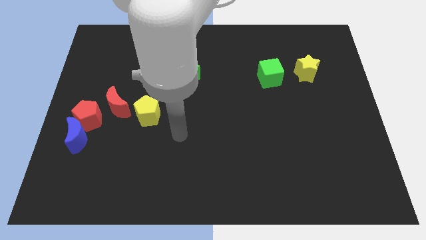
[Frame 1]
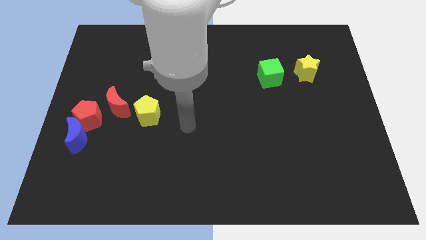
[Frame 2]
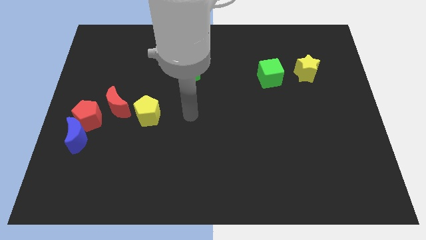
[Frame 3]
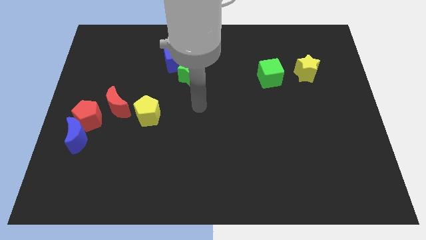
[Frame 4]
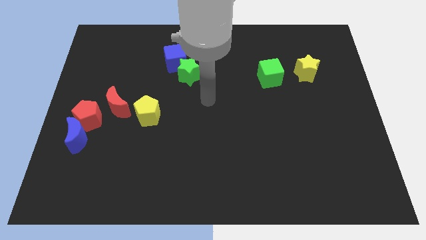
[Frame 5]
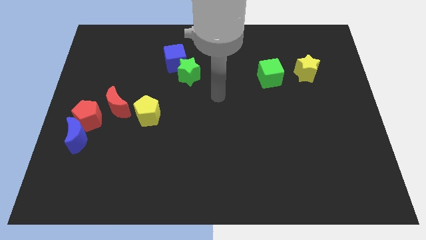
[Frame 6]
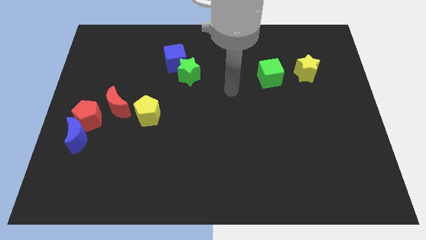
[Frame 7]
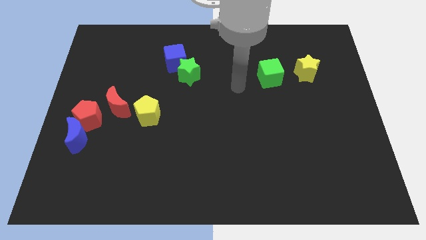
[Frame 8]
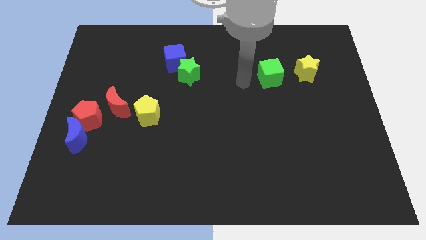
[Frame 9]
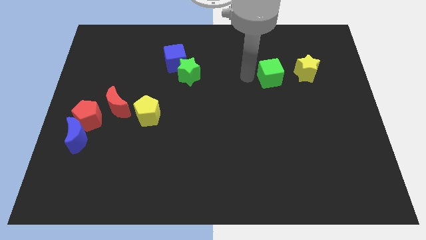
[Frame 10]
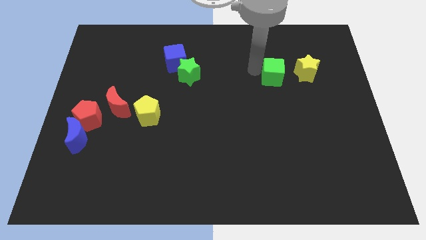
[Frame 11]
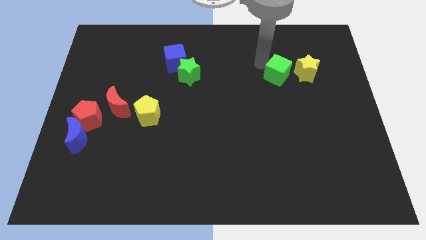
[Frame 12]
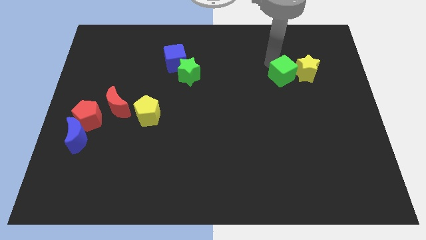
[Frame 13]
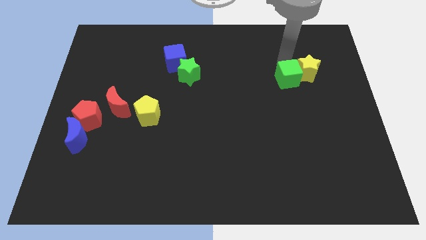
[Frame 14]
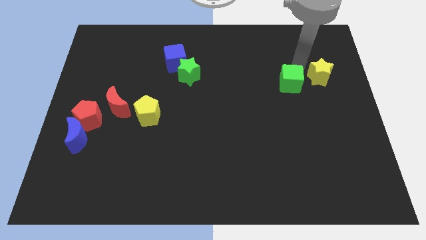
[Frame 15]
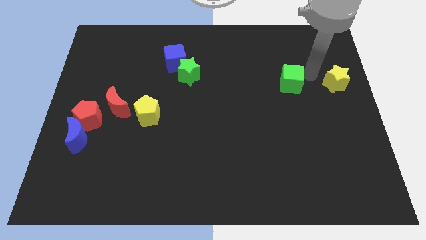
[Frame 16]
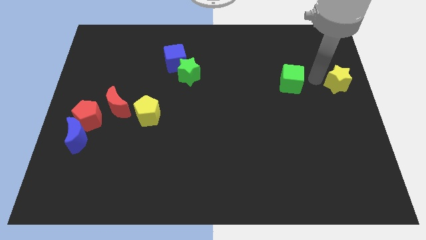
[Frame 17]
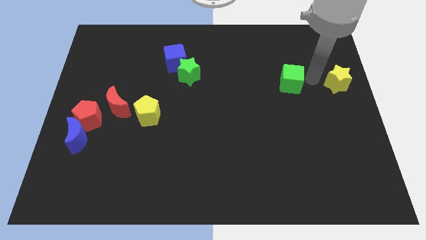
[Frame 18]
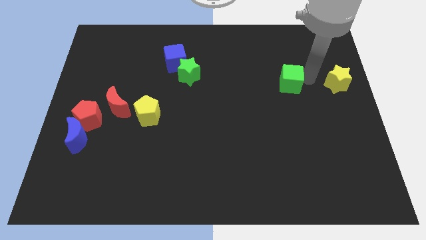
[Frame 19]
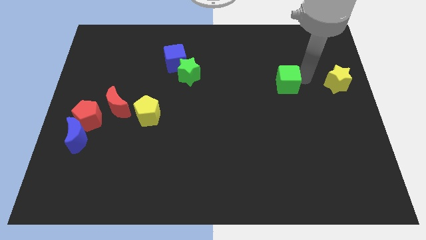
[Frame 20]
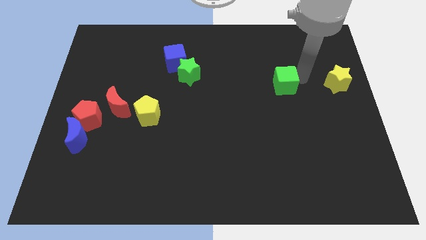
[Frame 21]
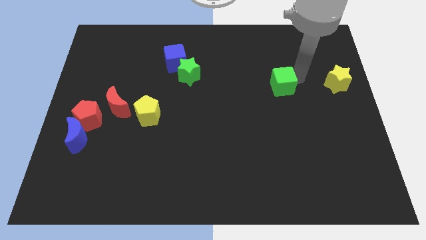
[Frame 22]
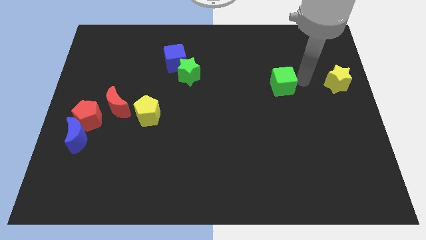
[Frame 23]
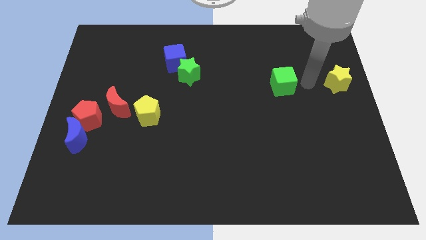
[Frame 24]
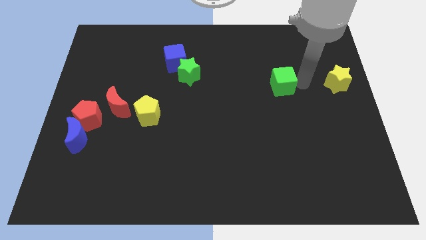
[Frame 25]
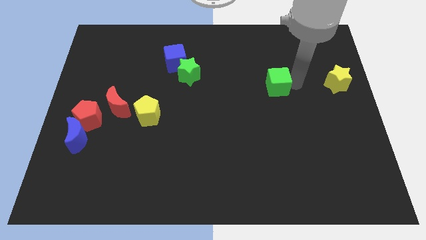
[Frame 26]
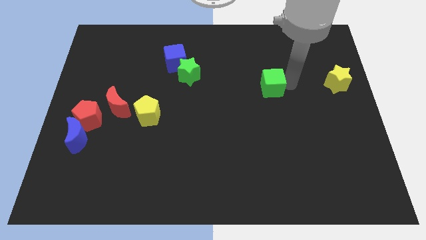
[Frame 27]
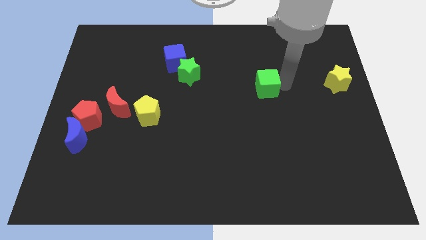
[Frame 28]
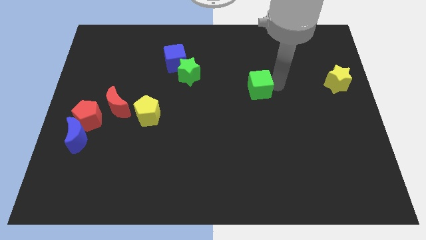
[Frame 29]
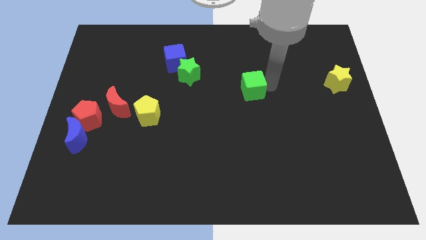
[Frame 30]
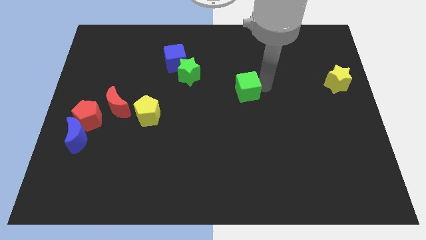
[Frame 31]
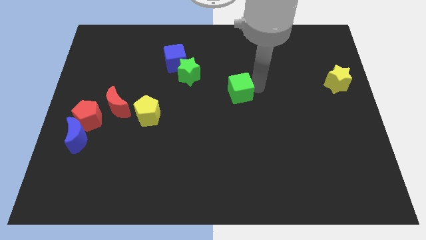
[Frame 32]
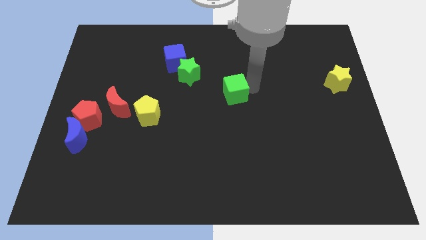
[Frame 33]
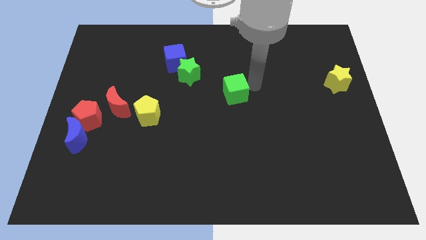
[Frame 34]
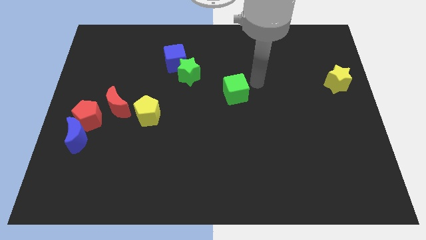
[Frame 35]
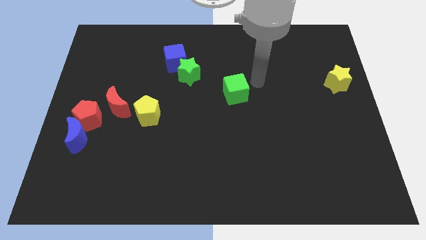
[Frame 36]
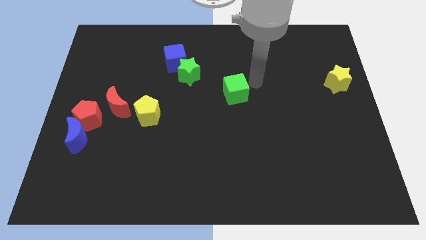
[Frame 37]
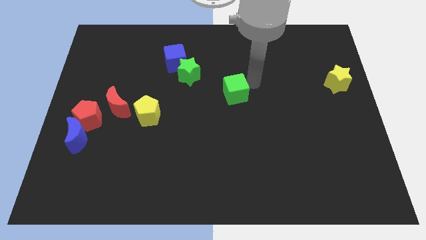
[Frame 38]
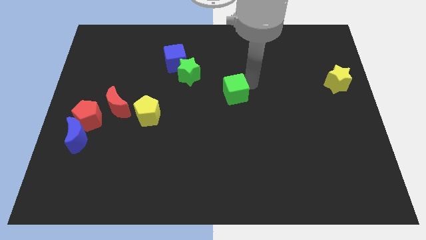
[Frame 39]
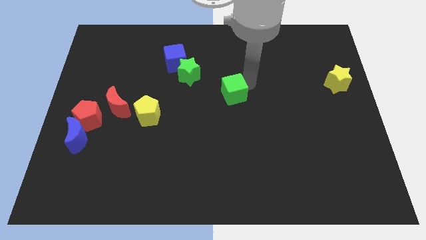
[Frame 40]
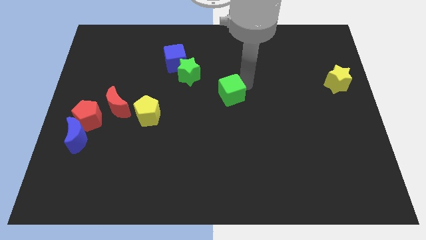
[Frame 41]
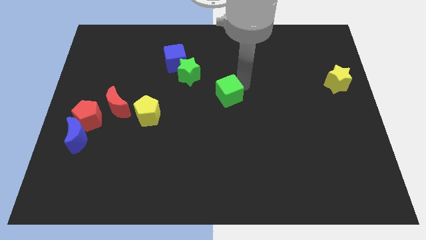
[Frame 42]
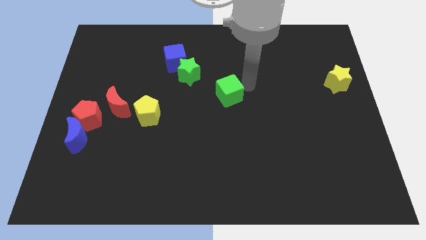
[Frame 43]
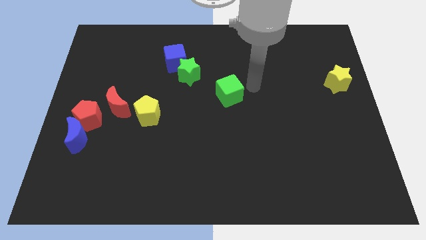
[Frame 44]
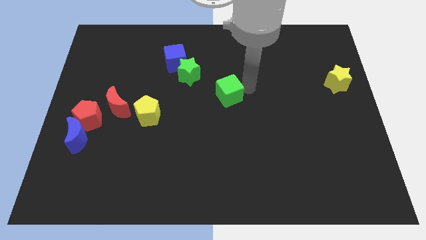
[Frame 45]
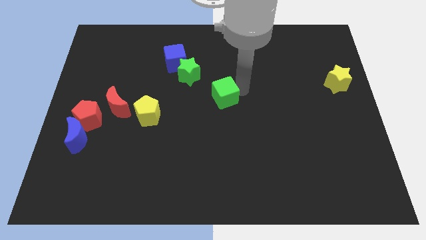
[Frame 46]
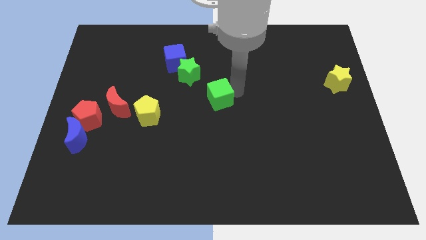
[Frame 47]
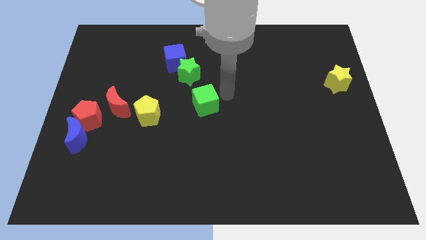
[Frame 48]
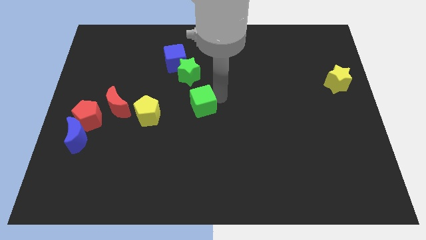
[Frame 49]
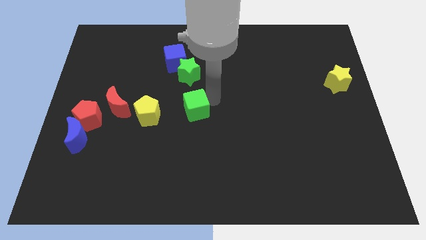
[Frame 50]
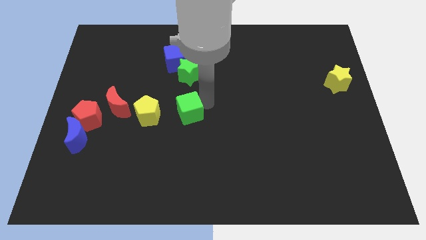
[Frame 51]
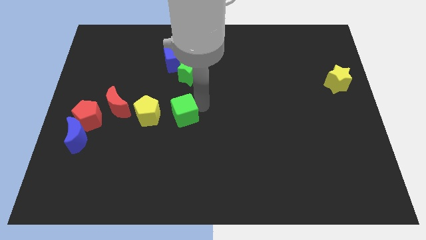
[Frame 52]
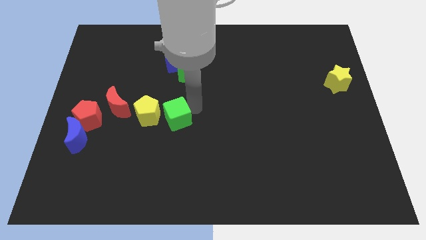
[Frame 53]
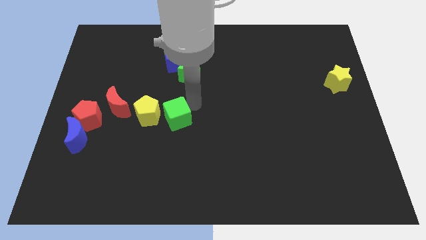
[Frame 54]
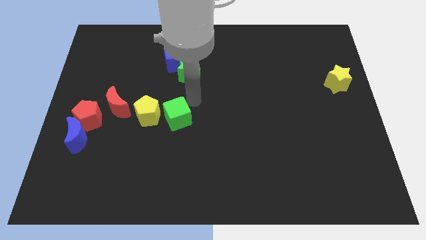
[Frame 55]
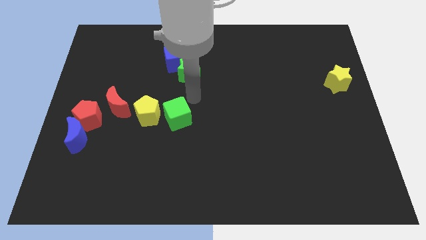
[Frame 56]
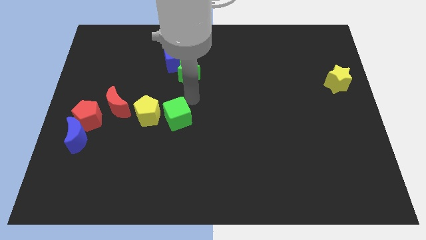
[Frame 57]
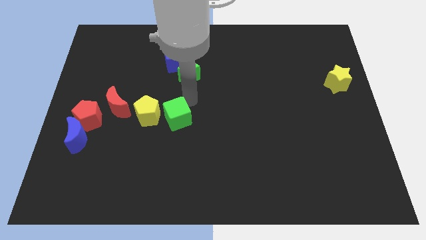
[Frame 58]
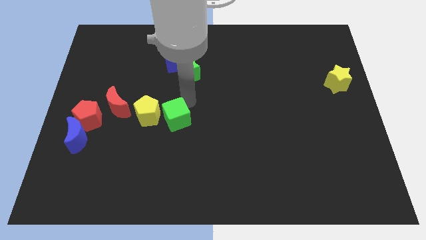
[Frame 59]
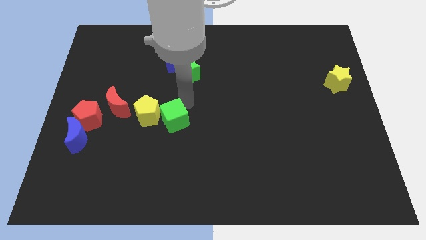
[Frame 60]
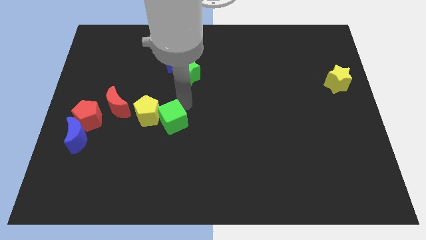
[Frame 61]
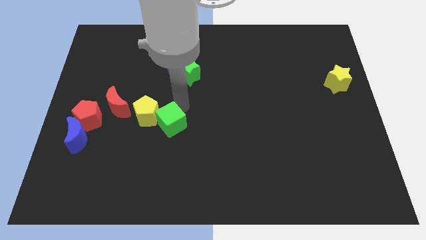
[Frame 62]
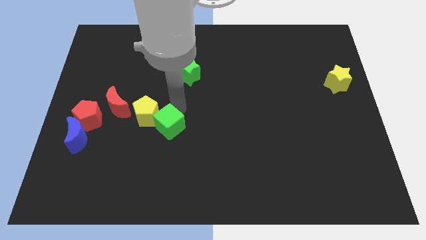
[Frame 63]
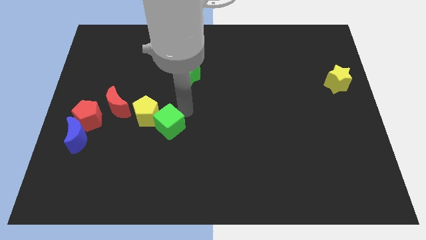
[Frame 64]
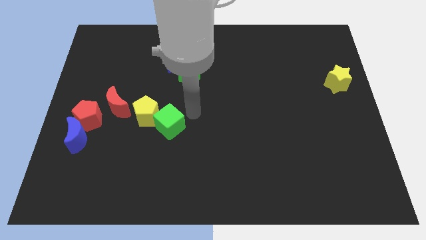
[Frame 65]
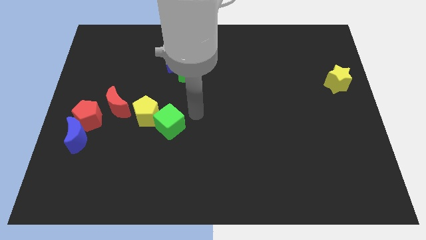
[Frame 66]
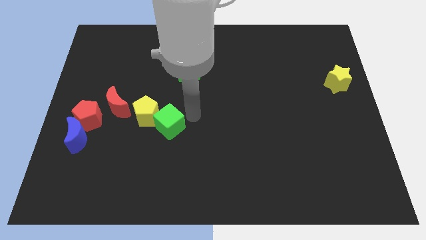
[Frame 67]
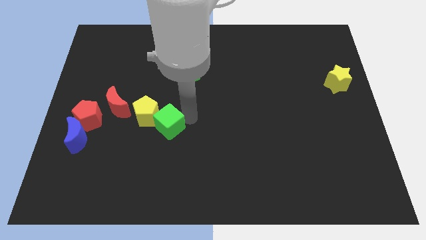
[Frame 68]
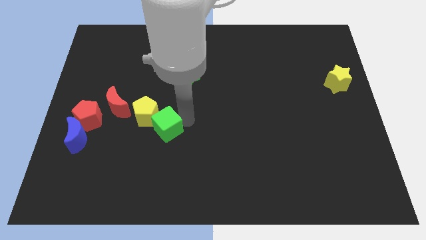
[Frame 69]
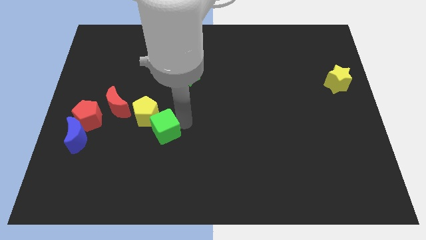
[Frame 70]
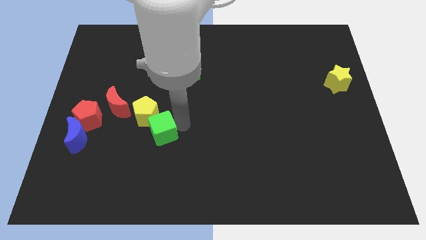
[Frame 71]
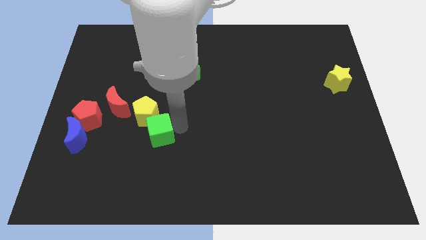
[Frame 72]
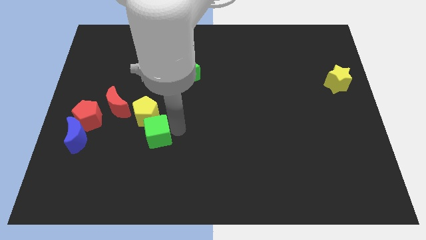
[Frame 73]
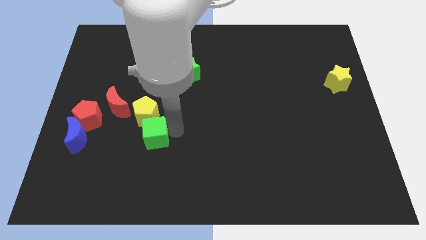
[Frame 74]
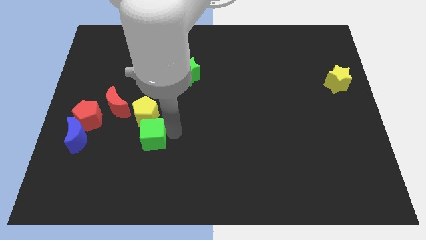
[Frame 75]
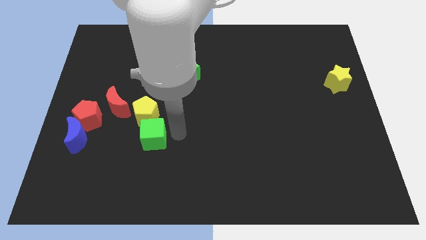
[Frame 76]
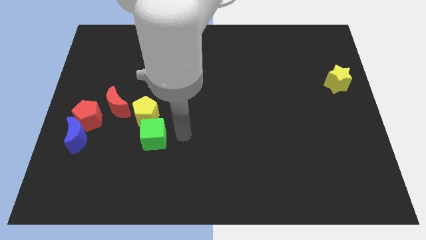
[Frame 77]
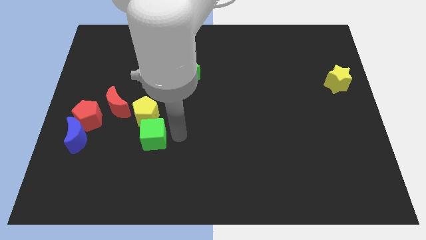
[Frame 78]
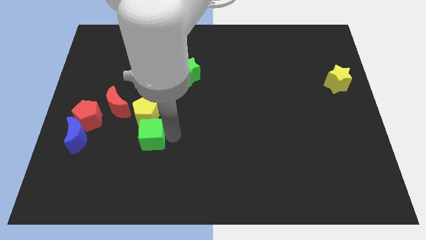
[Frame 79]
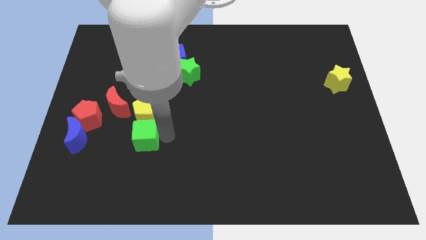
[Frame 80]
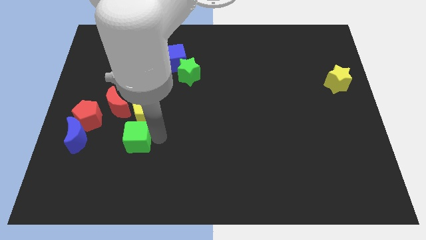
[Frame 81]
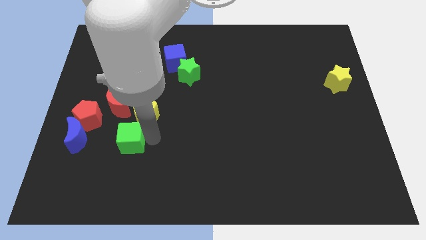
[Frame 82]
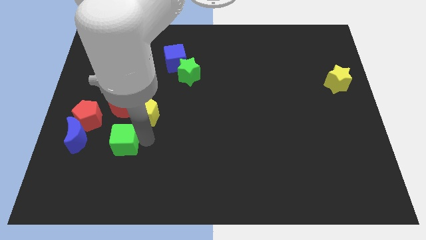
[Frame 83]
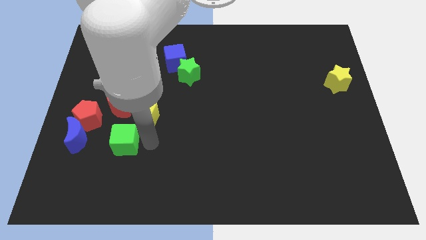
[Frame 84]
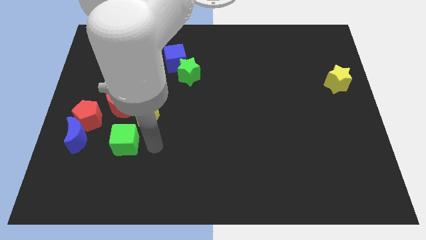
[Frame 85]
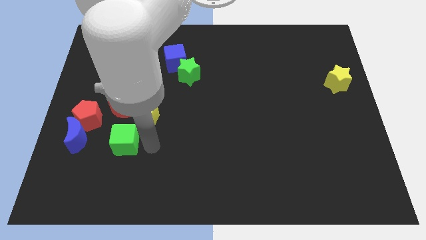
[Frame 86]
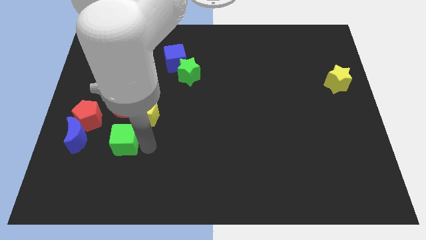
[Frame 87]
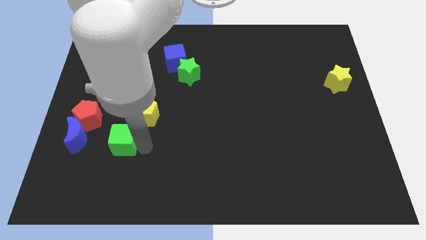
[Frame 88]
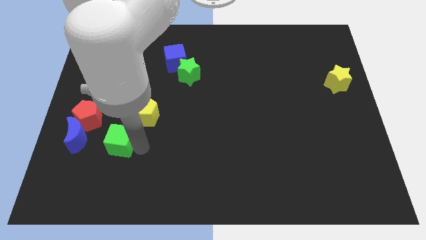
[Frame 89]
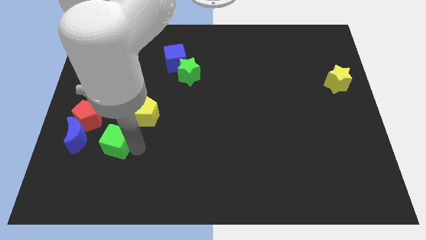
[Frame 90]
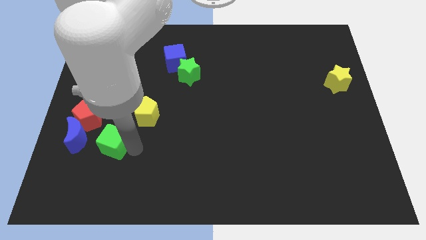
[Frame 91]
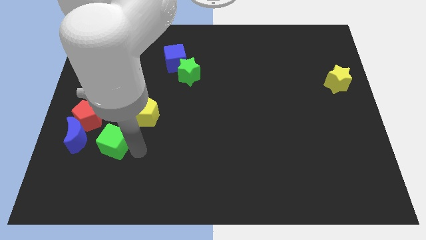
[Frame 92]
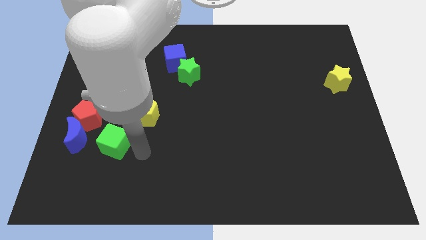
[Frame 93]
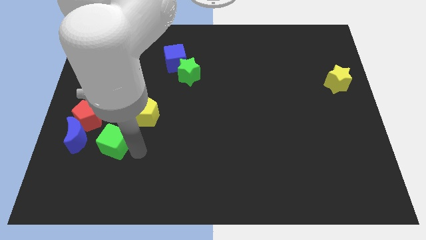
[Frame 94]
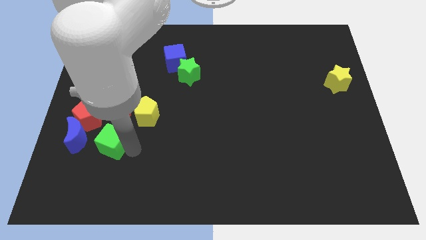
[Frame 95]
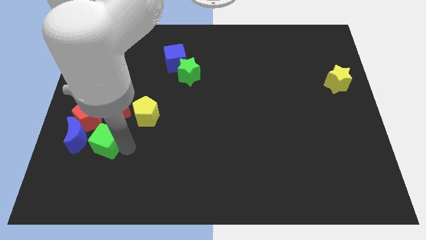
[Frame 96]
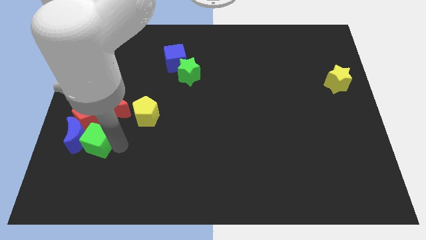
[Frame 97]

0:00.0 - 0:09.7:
move the green cube close to the blue moon
